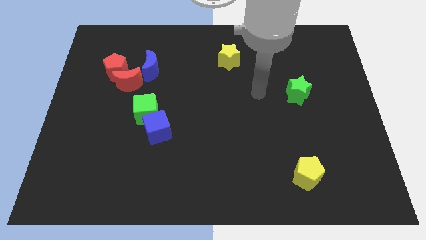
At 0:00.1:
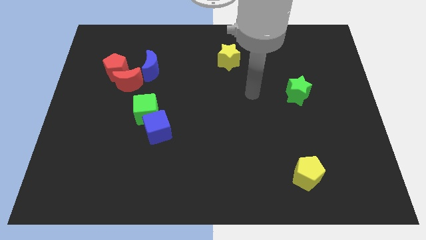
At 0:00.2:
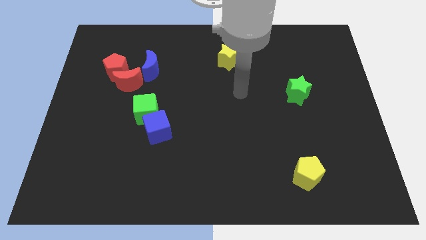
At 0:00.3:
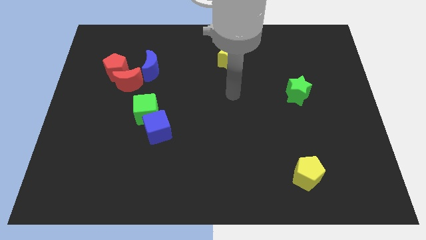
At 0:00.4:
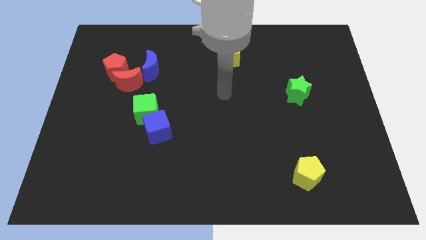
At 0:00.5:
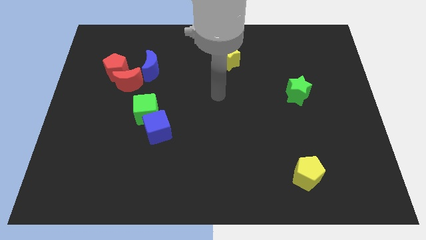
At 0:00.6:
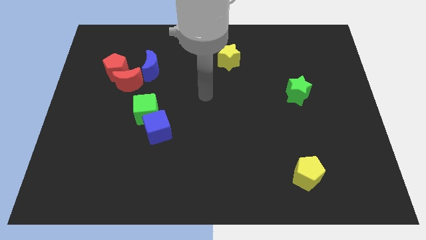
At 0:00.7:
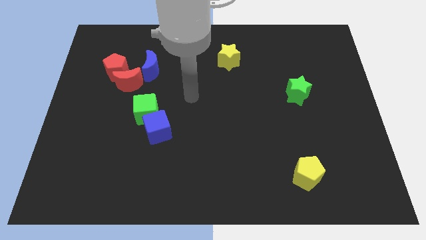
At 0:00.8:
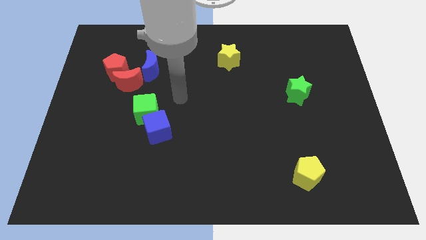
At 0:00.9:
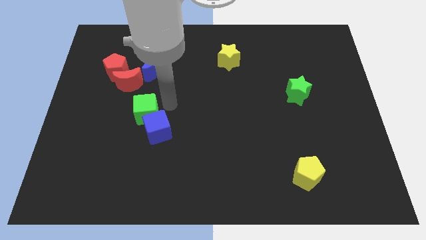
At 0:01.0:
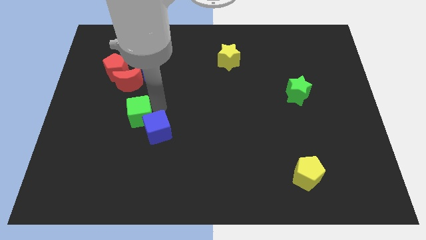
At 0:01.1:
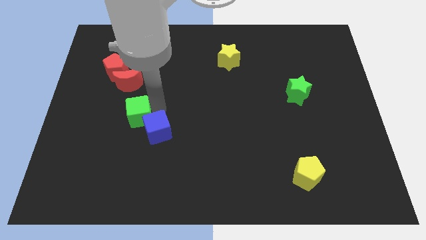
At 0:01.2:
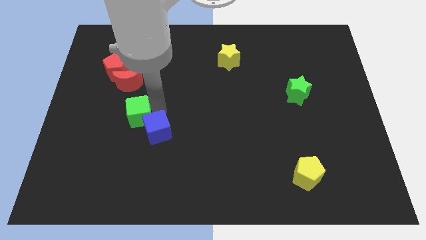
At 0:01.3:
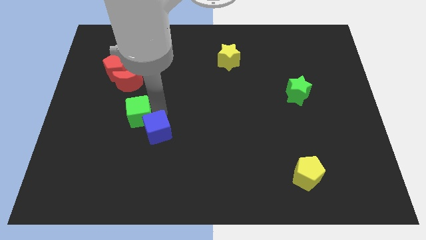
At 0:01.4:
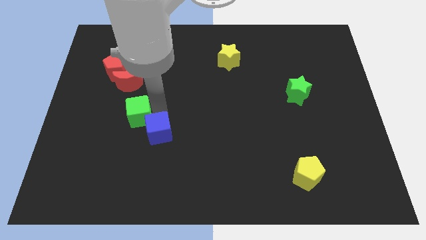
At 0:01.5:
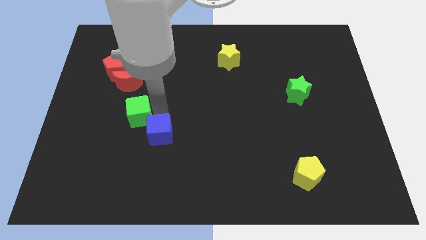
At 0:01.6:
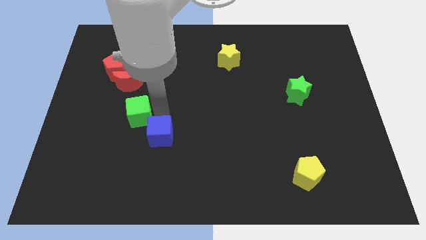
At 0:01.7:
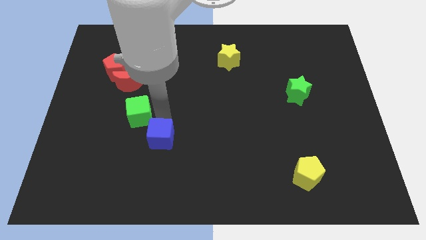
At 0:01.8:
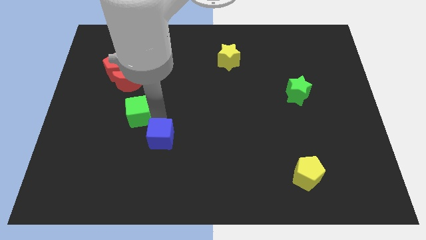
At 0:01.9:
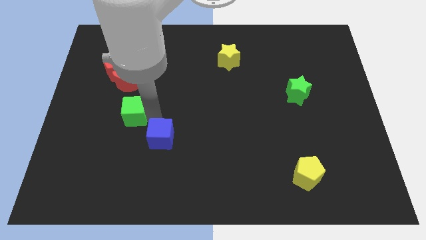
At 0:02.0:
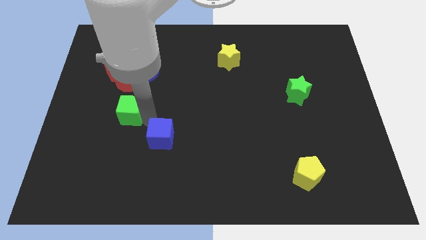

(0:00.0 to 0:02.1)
pull the blue cube apart from the green cube

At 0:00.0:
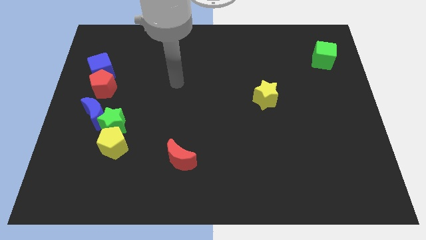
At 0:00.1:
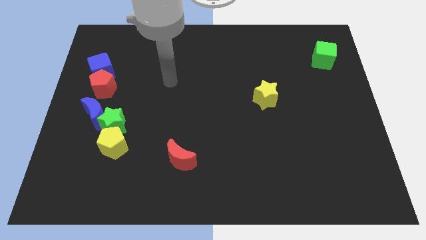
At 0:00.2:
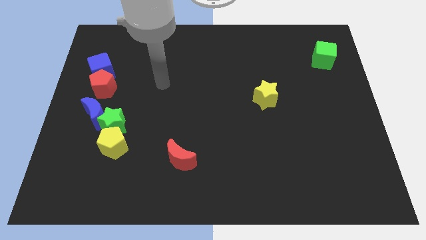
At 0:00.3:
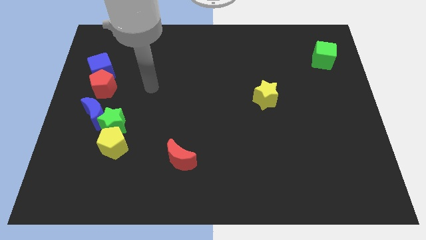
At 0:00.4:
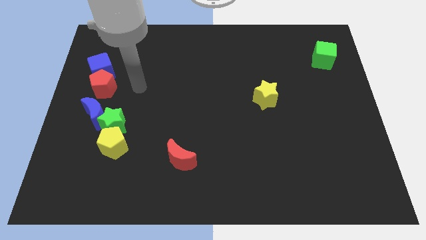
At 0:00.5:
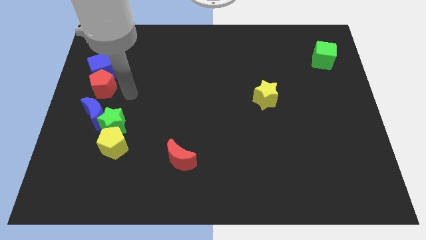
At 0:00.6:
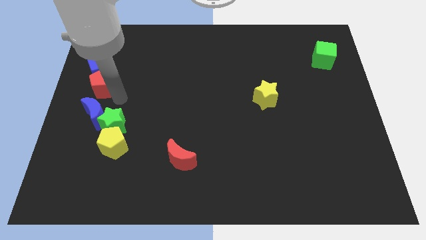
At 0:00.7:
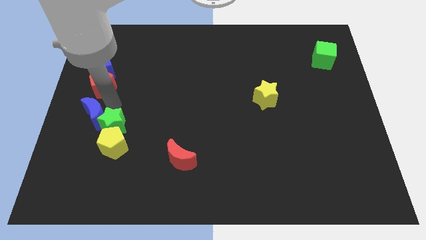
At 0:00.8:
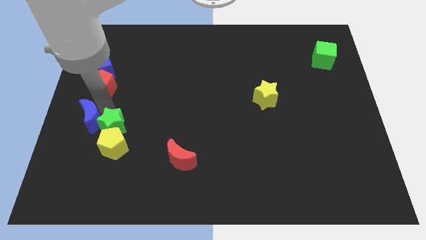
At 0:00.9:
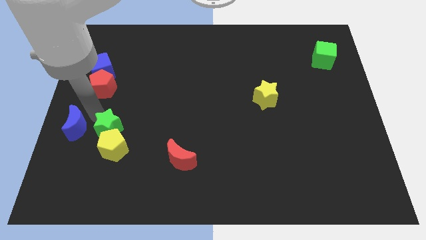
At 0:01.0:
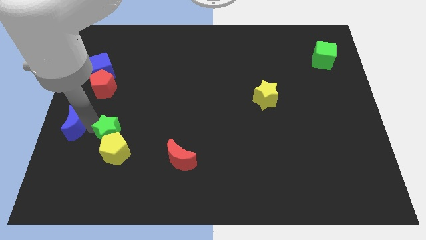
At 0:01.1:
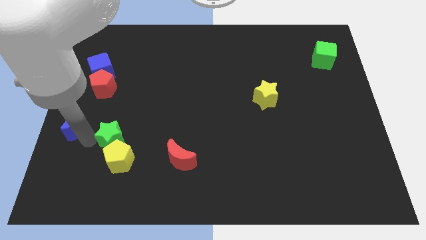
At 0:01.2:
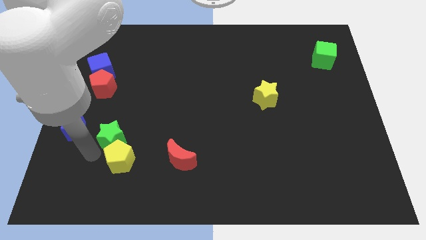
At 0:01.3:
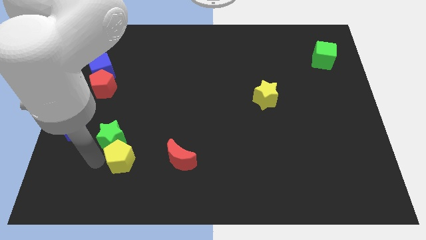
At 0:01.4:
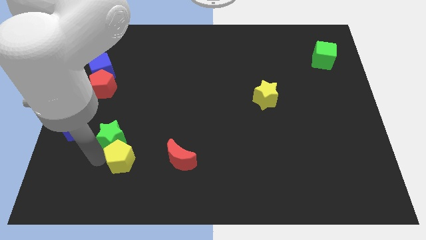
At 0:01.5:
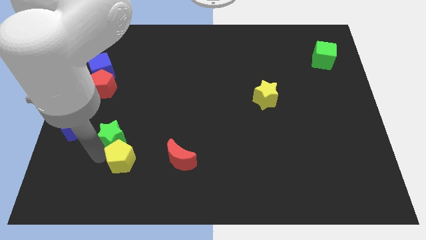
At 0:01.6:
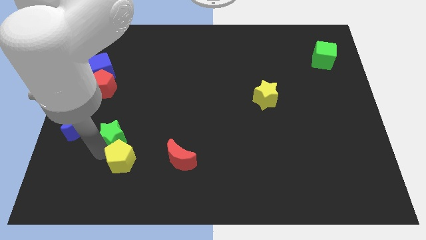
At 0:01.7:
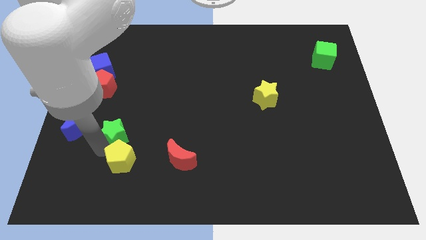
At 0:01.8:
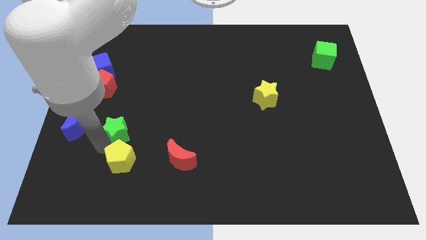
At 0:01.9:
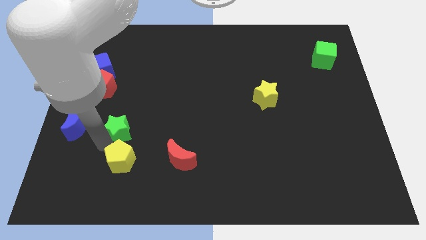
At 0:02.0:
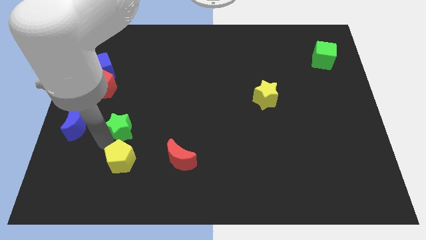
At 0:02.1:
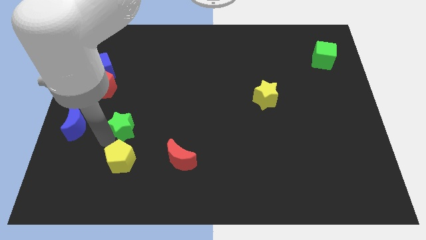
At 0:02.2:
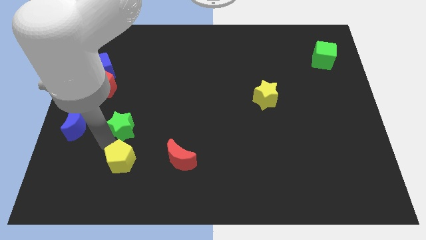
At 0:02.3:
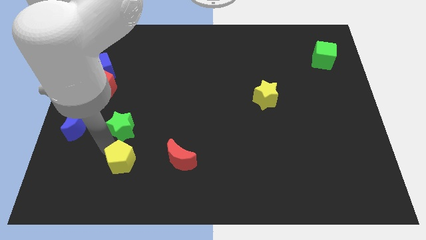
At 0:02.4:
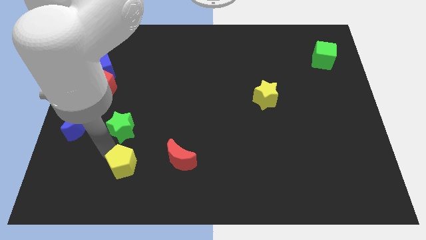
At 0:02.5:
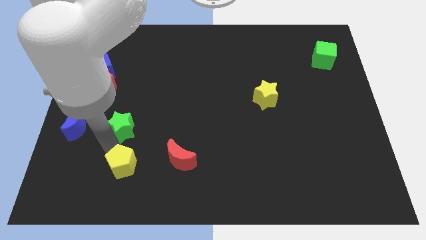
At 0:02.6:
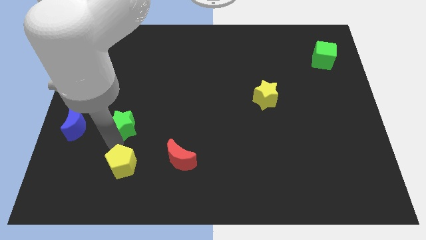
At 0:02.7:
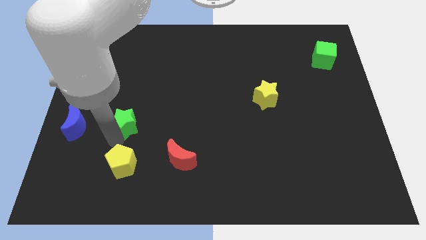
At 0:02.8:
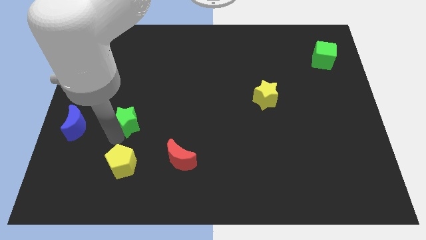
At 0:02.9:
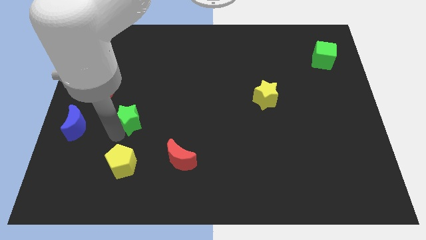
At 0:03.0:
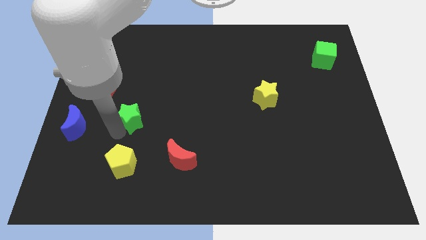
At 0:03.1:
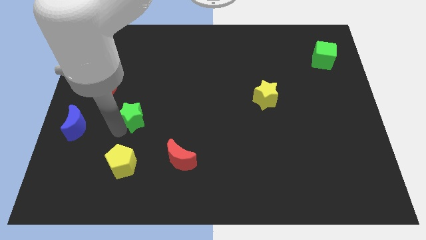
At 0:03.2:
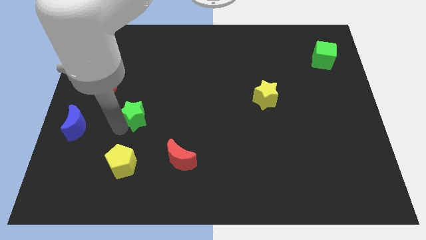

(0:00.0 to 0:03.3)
pull the green star apart from the yellow pentagon and blue moon

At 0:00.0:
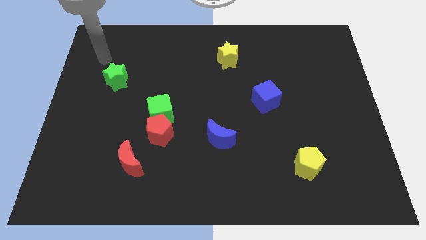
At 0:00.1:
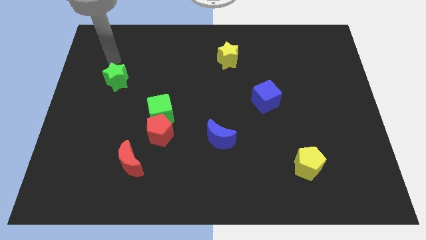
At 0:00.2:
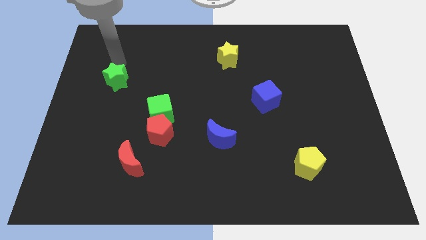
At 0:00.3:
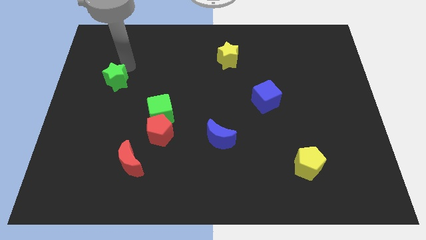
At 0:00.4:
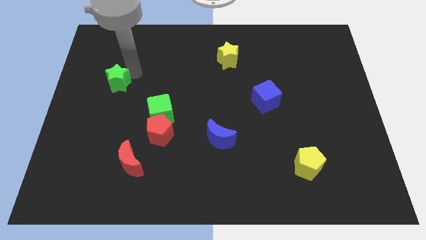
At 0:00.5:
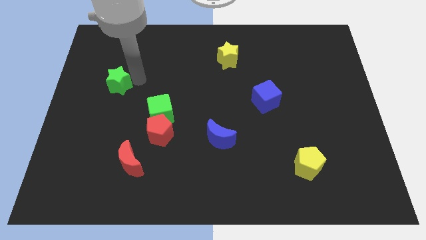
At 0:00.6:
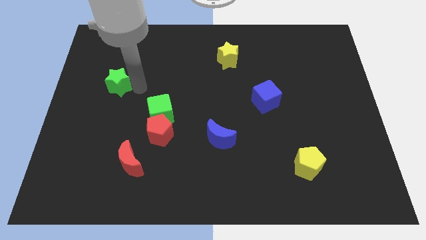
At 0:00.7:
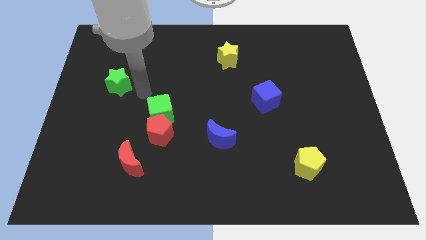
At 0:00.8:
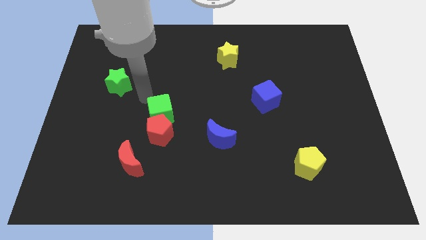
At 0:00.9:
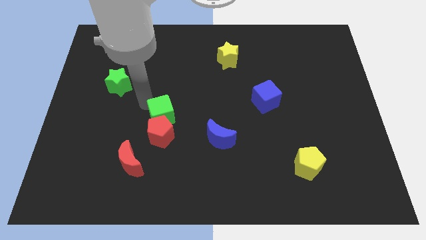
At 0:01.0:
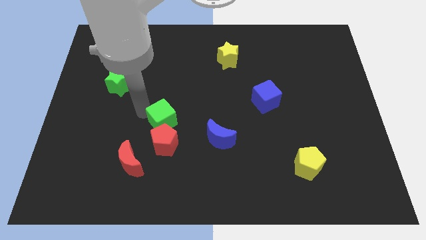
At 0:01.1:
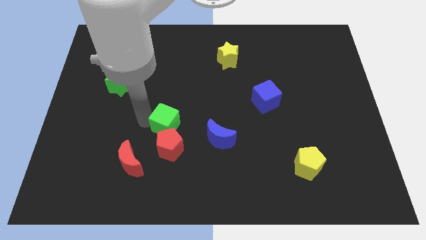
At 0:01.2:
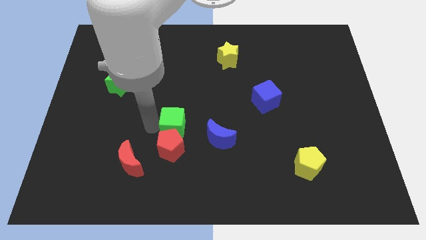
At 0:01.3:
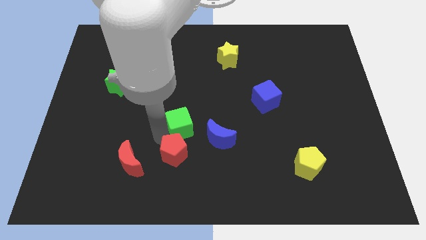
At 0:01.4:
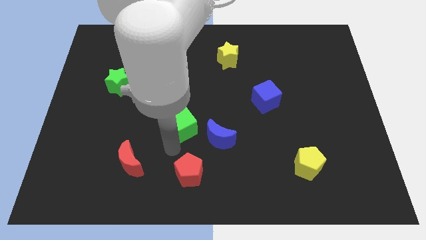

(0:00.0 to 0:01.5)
pull the green cube apart from the red pentagon

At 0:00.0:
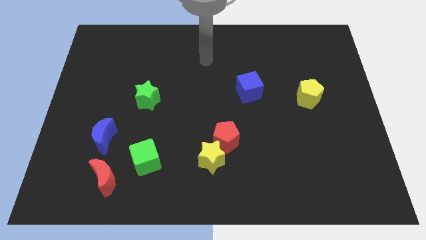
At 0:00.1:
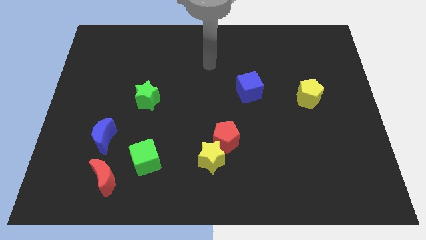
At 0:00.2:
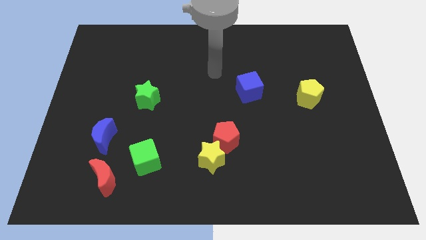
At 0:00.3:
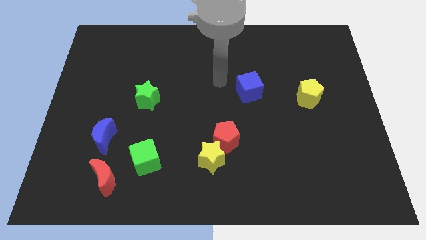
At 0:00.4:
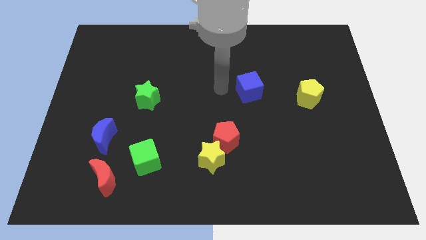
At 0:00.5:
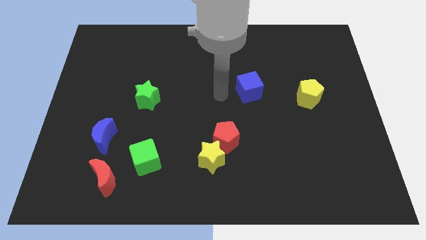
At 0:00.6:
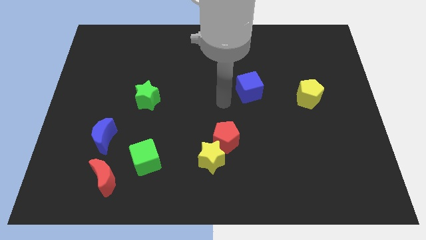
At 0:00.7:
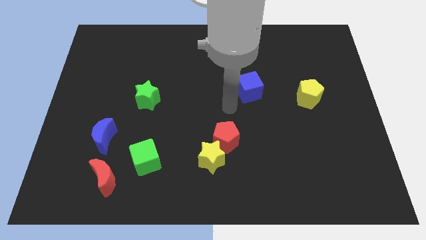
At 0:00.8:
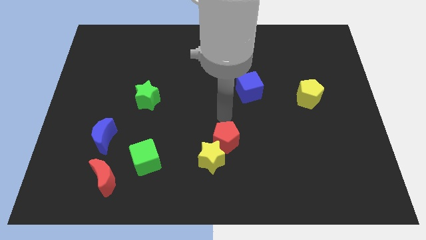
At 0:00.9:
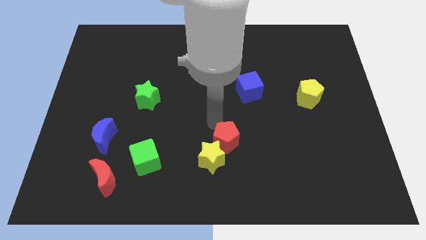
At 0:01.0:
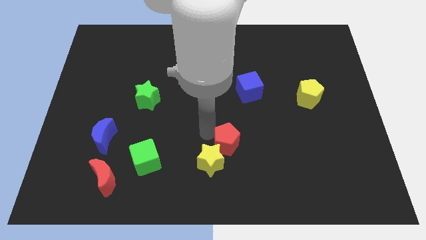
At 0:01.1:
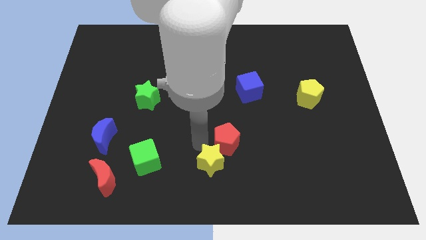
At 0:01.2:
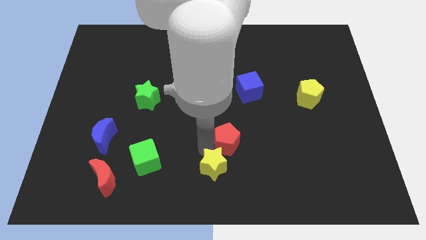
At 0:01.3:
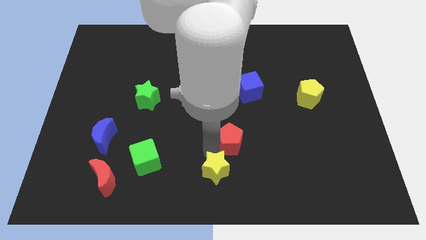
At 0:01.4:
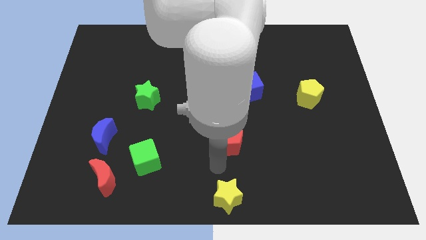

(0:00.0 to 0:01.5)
move the red pentagon away from the yellow star

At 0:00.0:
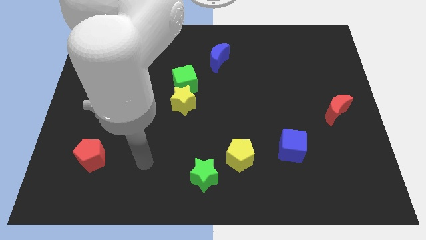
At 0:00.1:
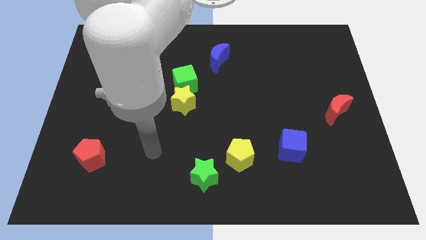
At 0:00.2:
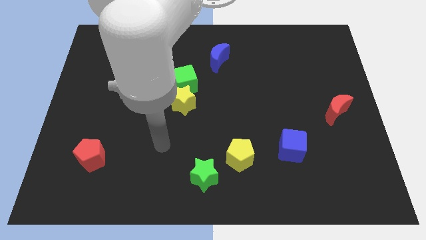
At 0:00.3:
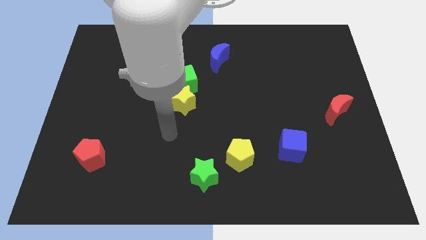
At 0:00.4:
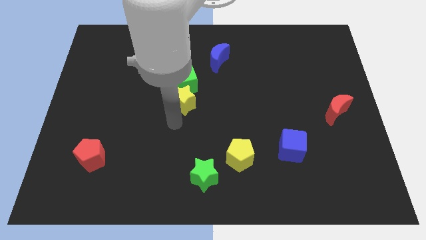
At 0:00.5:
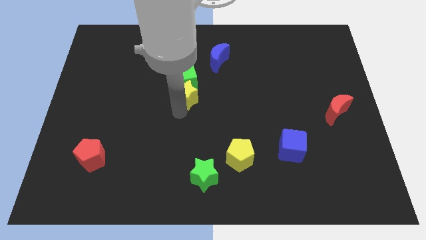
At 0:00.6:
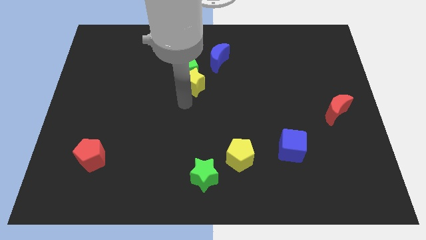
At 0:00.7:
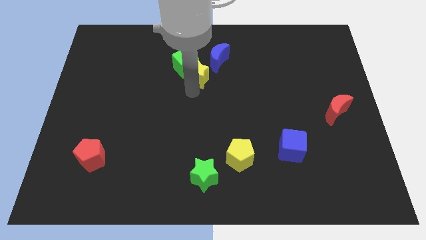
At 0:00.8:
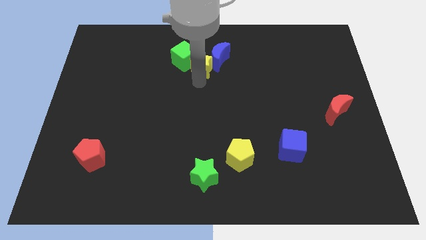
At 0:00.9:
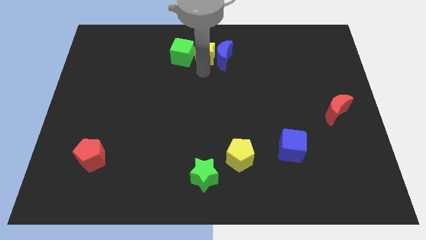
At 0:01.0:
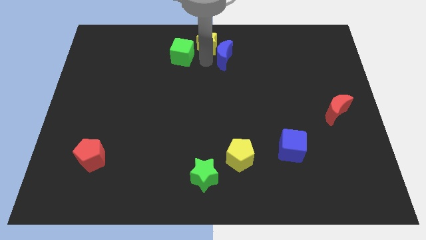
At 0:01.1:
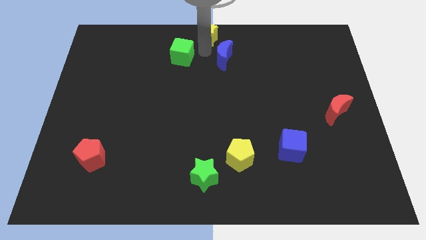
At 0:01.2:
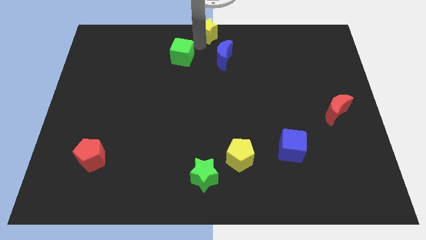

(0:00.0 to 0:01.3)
separate the green cube from the yellow star
